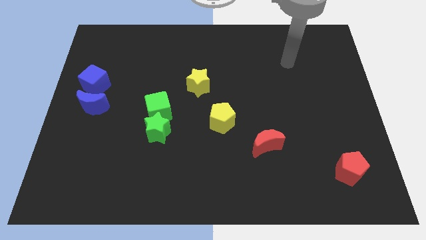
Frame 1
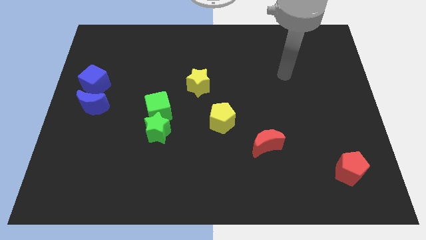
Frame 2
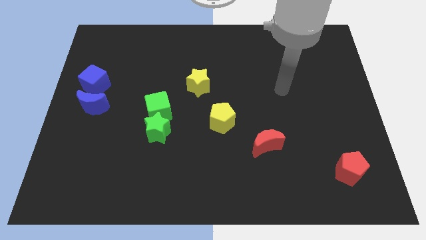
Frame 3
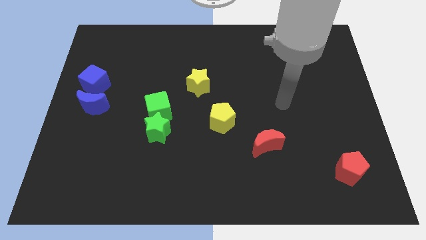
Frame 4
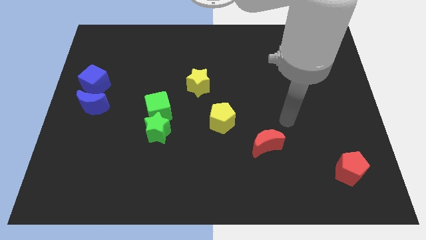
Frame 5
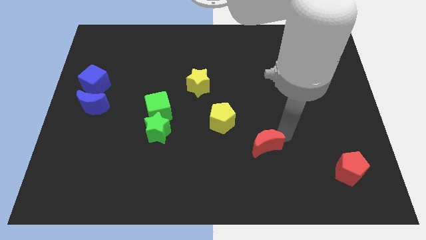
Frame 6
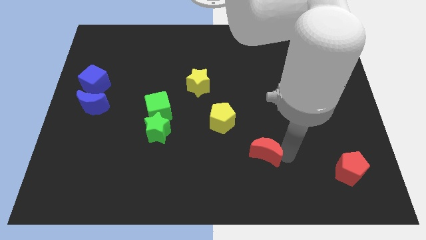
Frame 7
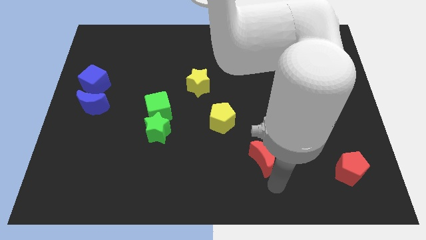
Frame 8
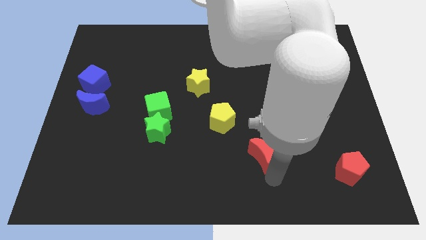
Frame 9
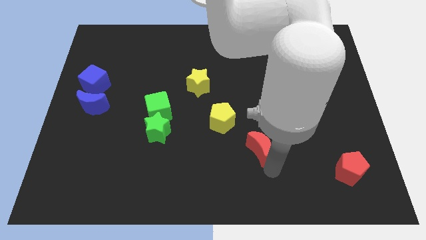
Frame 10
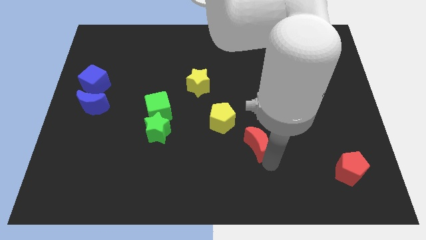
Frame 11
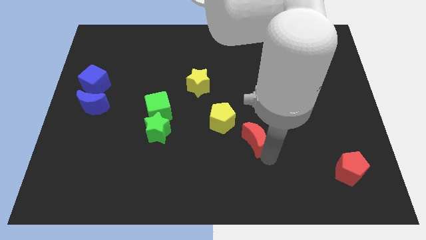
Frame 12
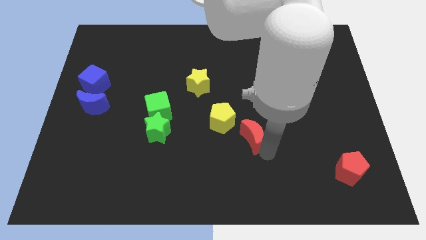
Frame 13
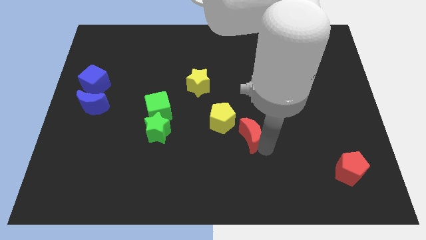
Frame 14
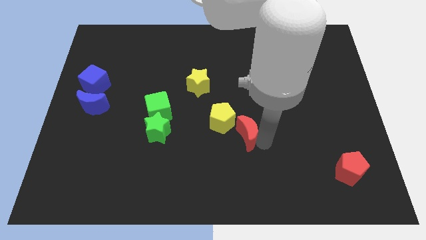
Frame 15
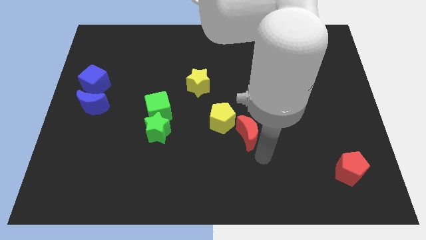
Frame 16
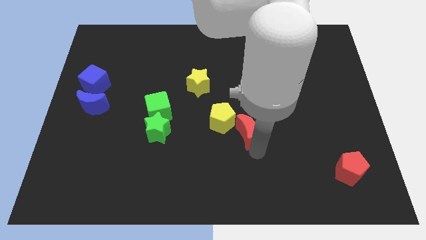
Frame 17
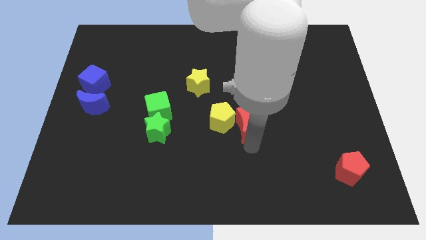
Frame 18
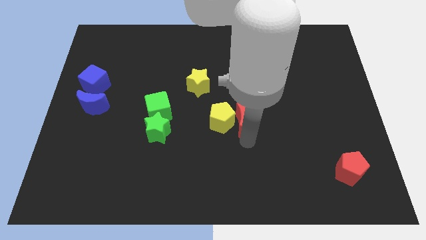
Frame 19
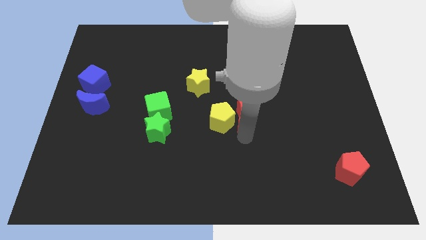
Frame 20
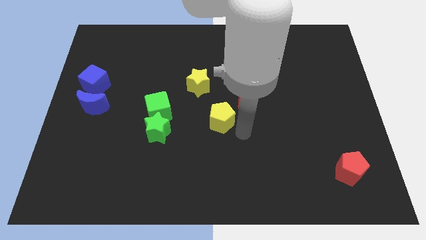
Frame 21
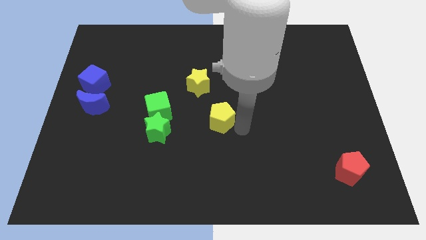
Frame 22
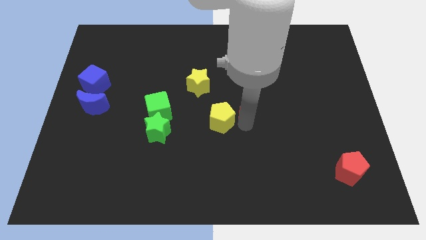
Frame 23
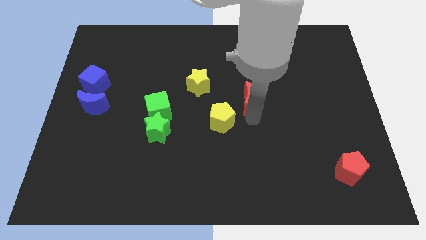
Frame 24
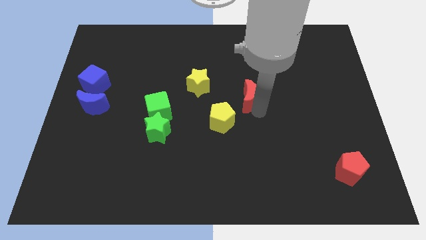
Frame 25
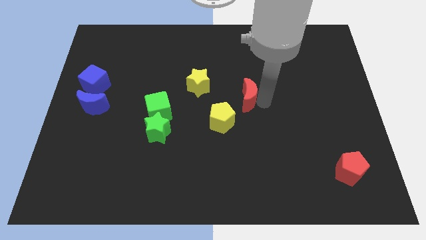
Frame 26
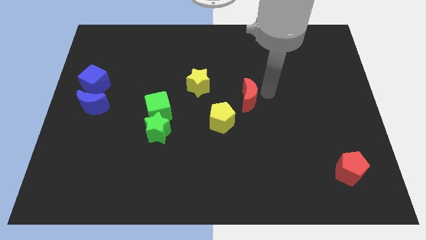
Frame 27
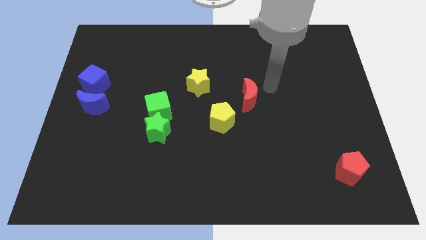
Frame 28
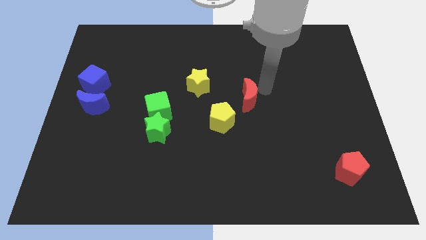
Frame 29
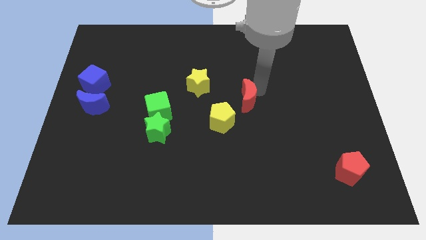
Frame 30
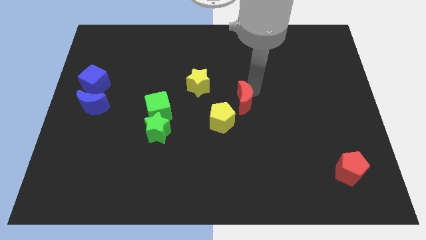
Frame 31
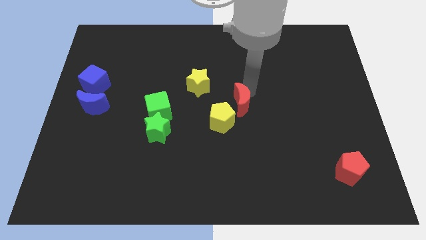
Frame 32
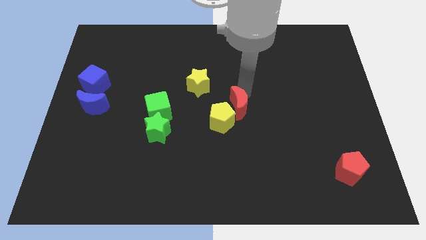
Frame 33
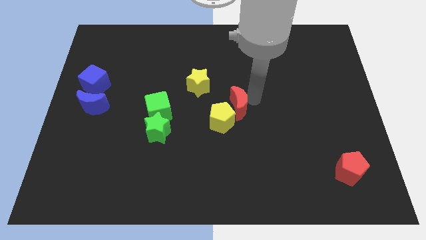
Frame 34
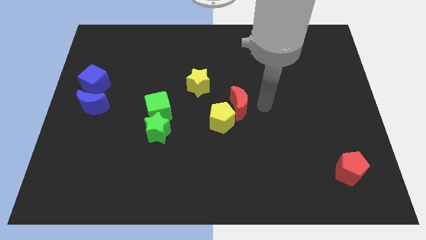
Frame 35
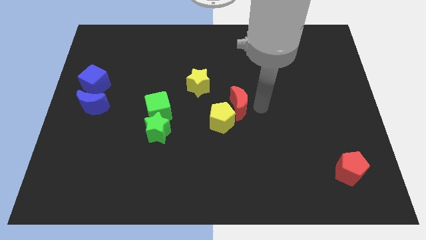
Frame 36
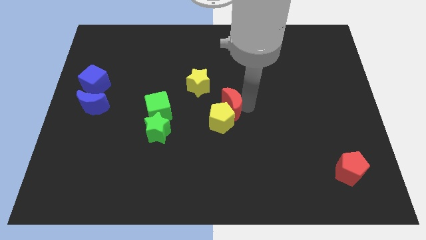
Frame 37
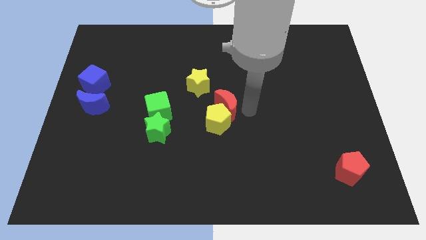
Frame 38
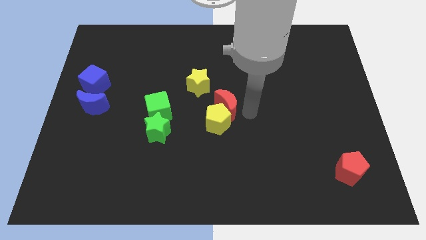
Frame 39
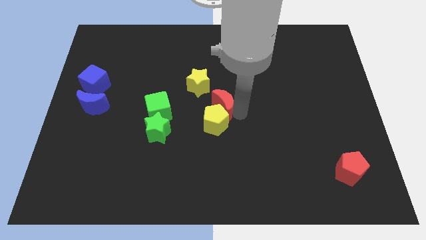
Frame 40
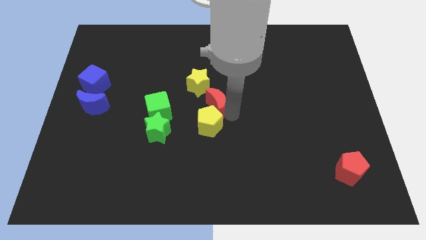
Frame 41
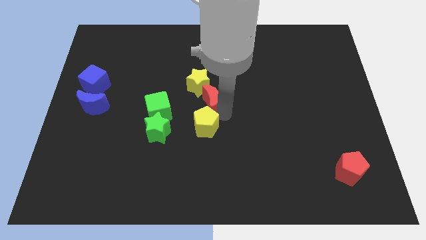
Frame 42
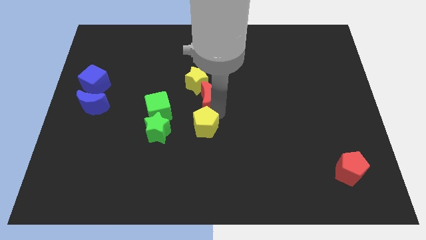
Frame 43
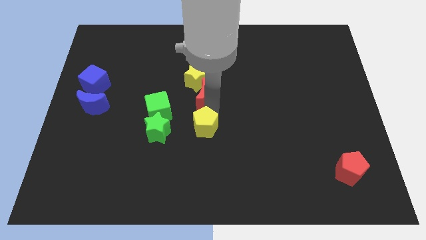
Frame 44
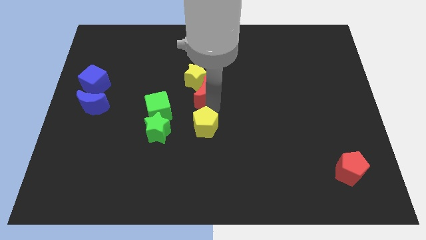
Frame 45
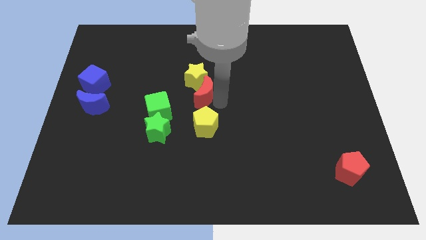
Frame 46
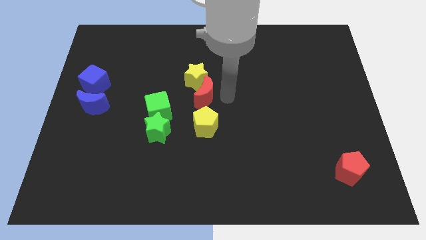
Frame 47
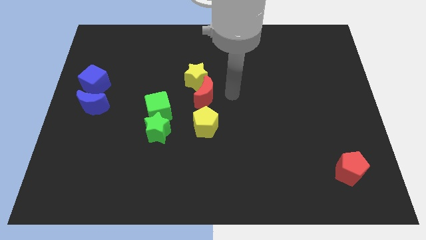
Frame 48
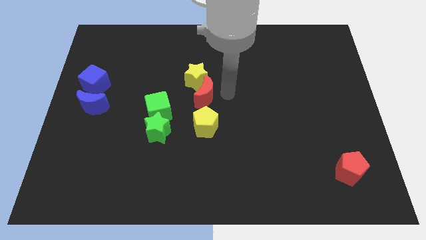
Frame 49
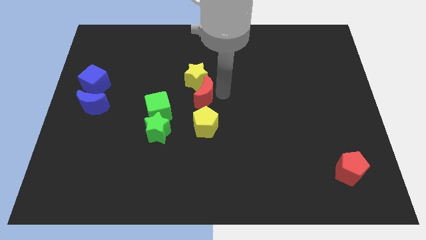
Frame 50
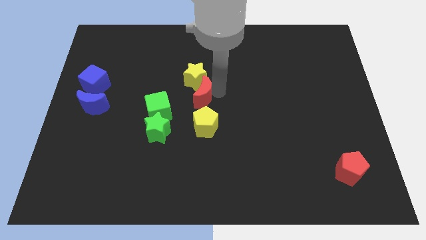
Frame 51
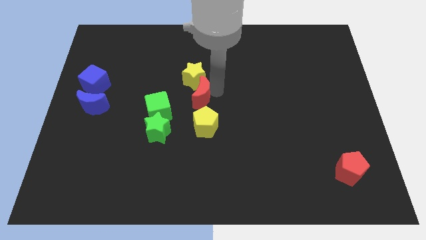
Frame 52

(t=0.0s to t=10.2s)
slide the red moon upwards and then to the left

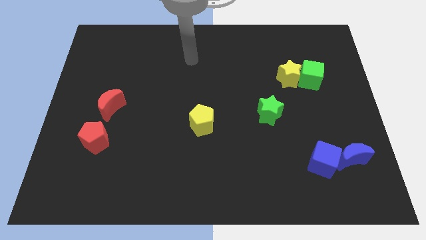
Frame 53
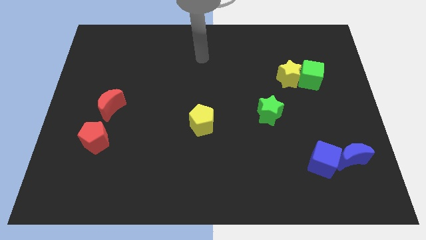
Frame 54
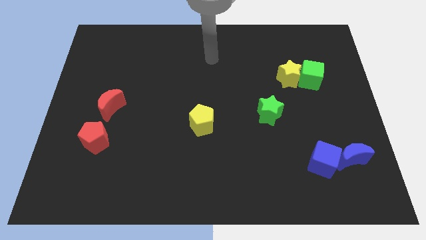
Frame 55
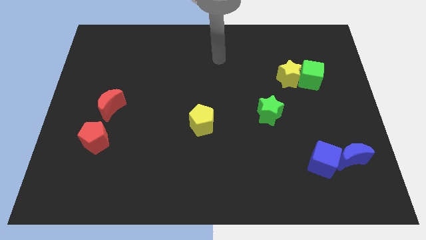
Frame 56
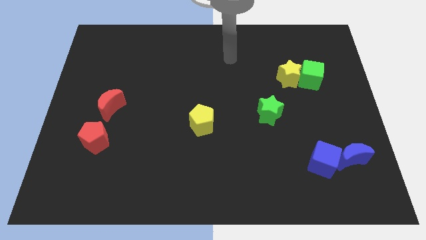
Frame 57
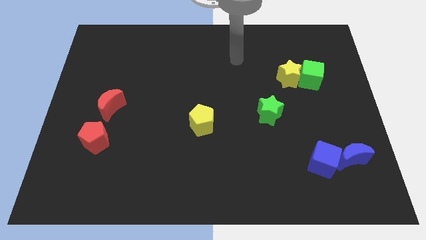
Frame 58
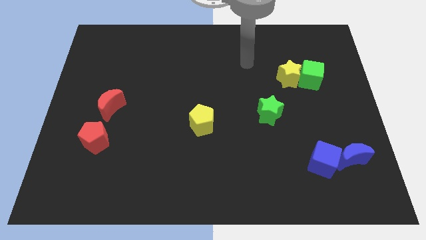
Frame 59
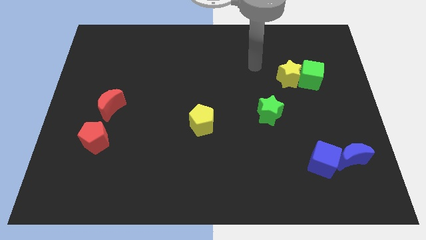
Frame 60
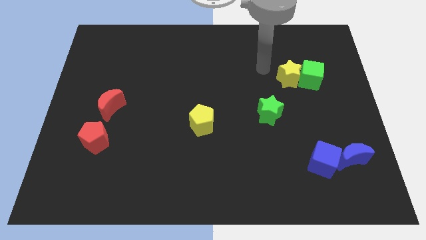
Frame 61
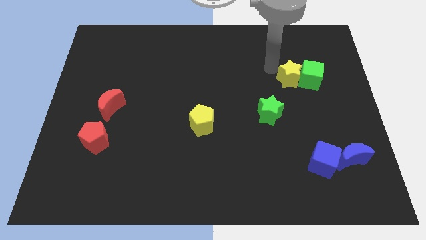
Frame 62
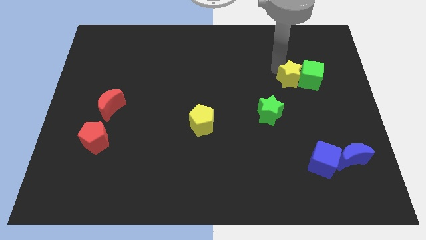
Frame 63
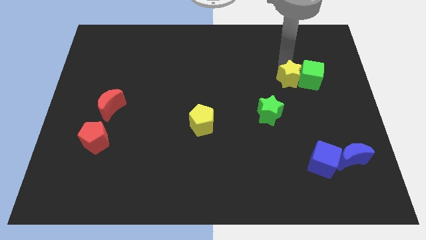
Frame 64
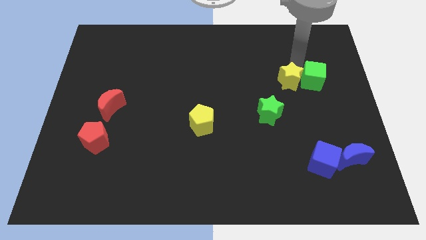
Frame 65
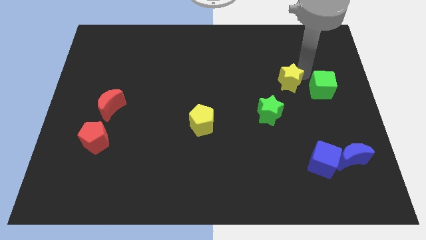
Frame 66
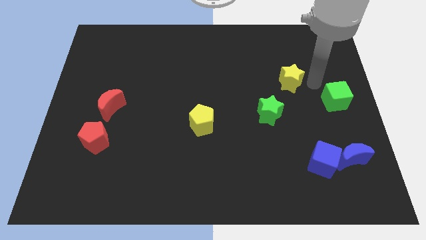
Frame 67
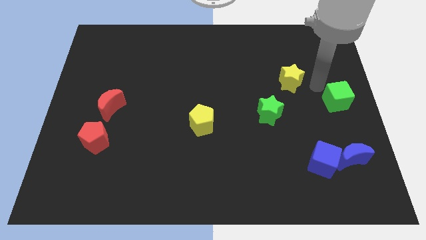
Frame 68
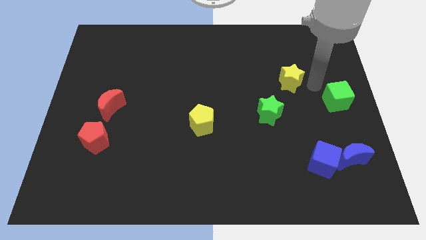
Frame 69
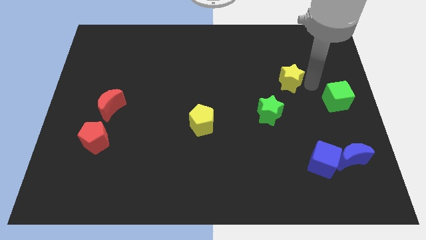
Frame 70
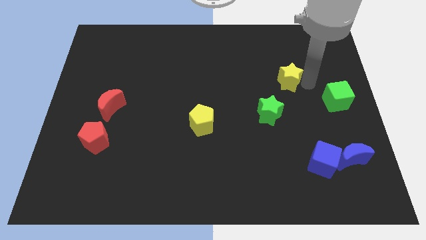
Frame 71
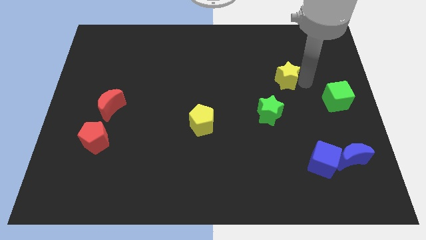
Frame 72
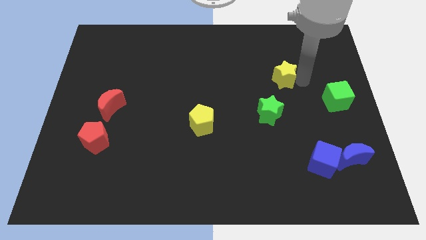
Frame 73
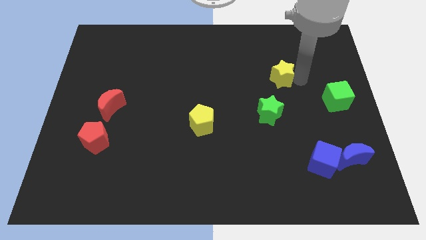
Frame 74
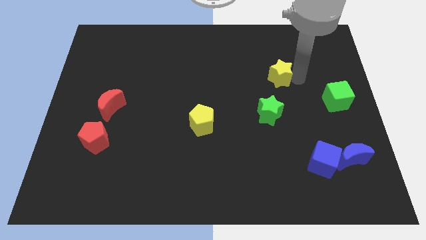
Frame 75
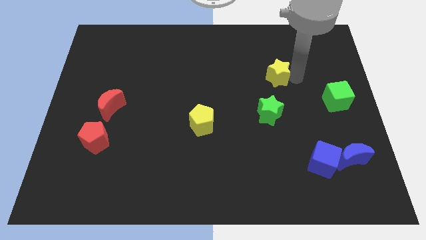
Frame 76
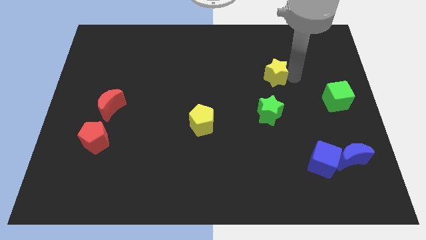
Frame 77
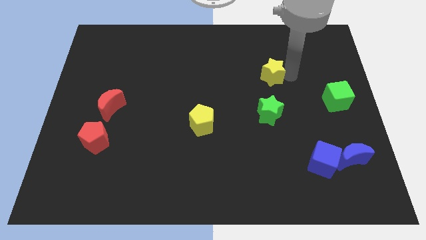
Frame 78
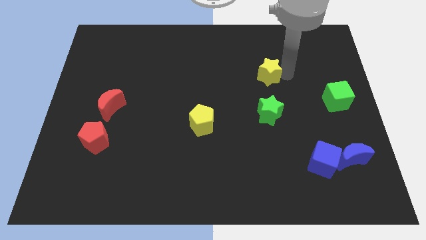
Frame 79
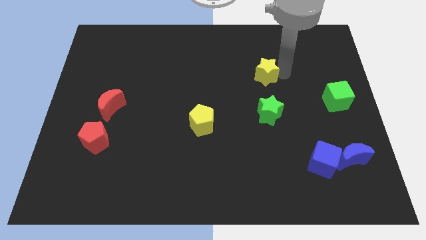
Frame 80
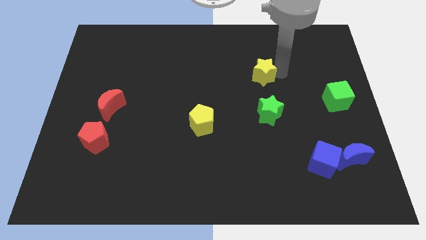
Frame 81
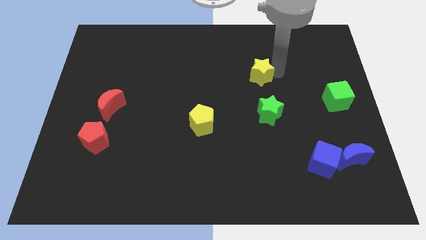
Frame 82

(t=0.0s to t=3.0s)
push the yellow star a bit to the left
